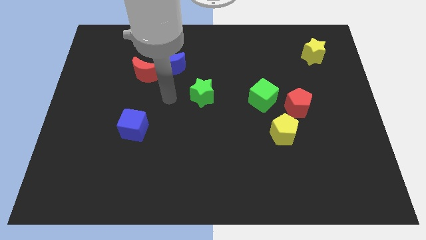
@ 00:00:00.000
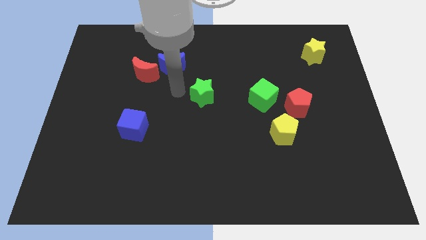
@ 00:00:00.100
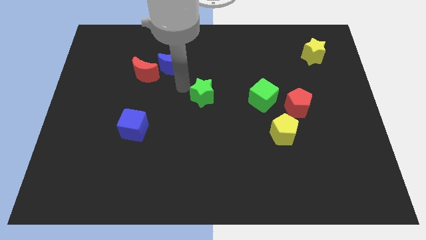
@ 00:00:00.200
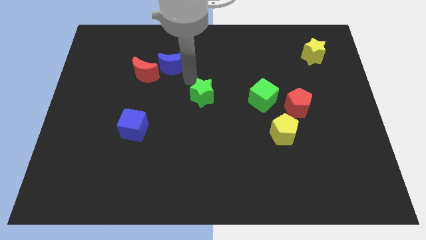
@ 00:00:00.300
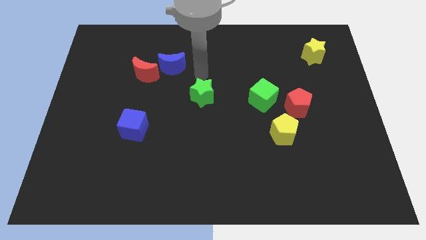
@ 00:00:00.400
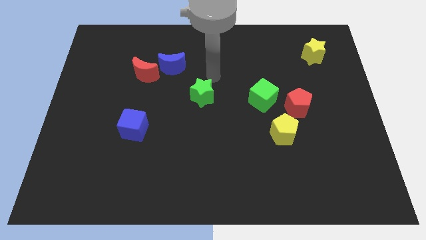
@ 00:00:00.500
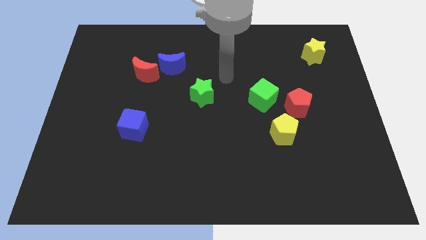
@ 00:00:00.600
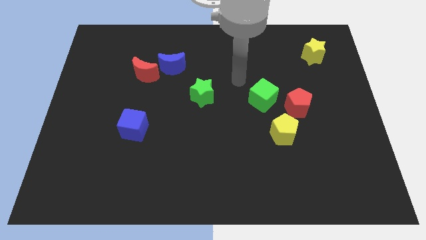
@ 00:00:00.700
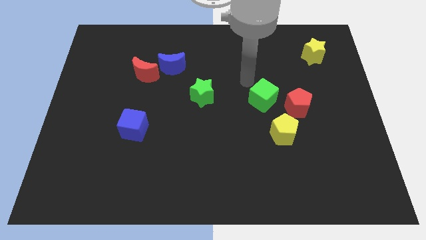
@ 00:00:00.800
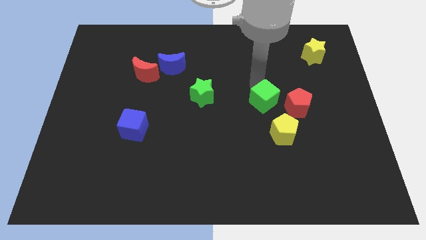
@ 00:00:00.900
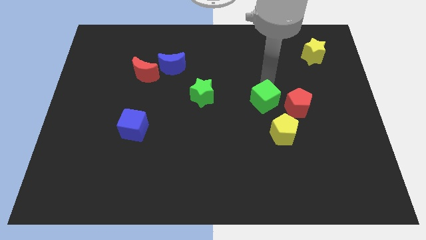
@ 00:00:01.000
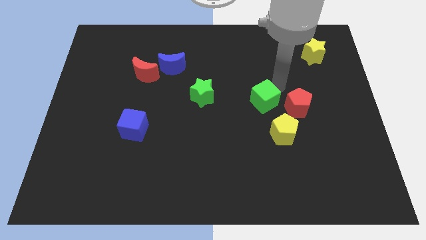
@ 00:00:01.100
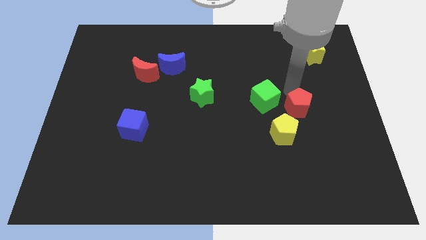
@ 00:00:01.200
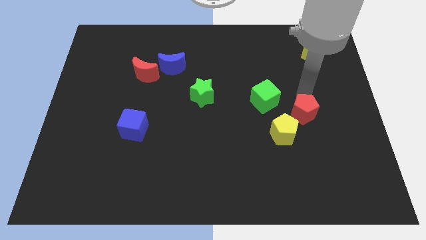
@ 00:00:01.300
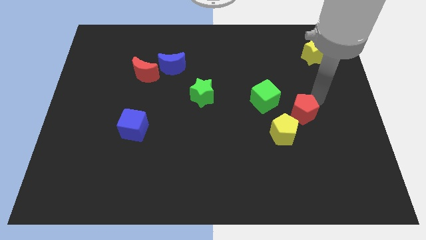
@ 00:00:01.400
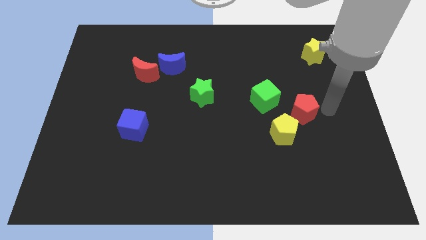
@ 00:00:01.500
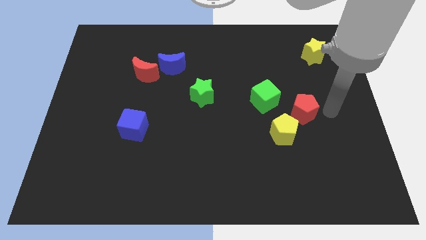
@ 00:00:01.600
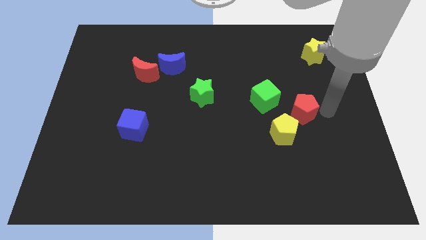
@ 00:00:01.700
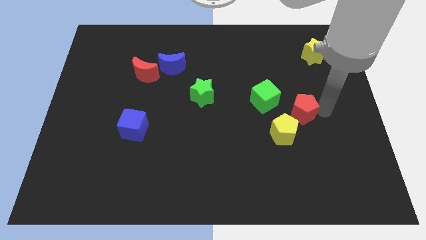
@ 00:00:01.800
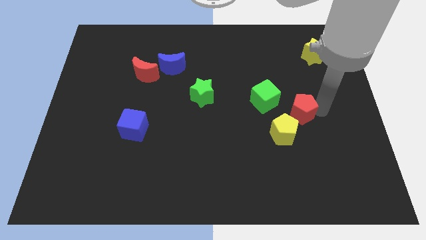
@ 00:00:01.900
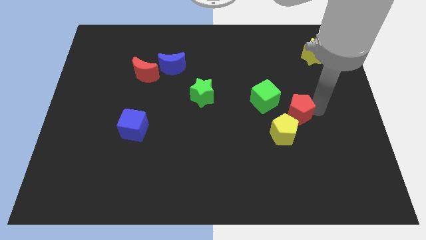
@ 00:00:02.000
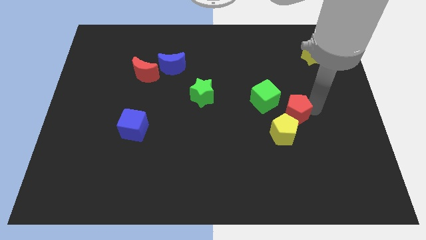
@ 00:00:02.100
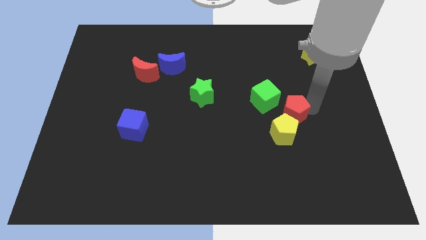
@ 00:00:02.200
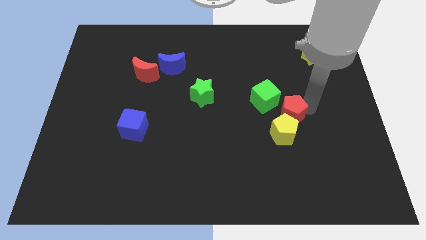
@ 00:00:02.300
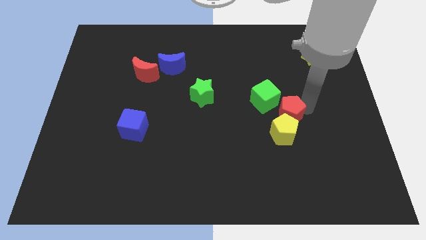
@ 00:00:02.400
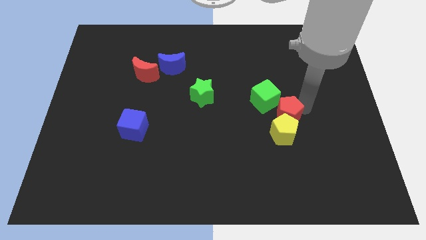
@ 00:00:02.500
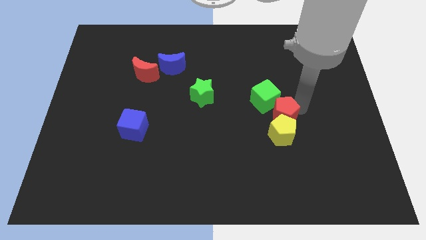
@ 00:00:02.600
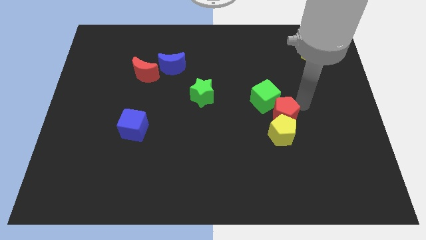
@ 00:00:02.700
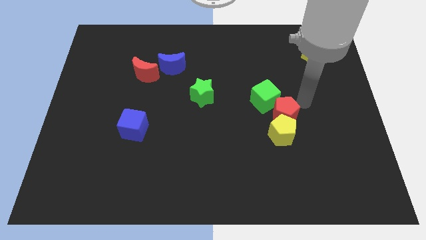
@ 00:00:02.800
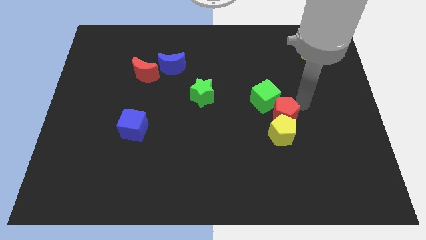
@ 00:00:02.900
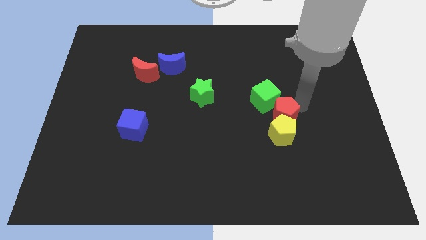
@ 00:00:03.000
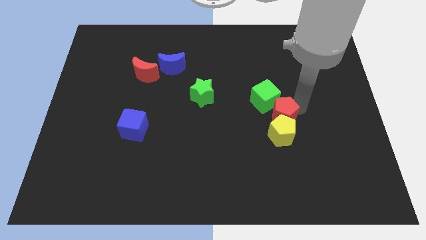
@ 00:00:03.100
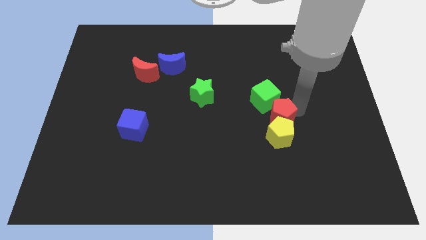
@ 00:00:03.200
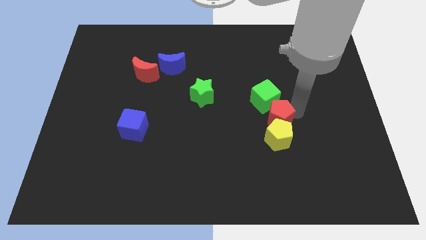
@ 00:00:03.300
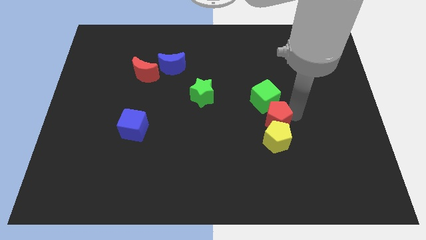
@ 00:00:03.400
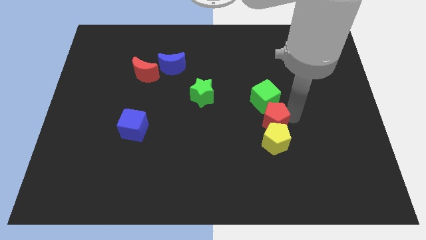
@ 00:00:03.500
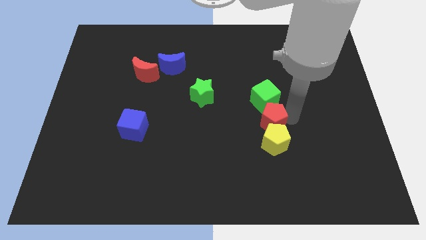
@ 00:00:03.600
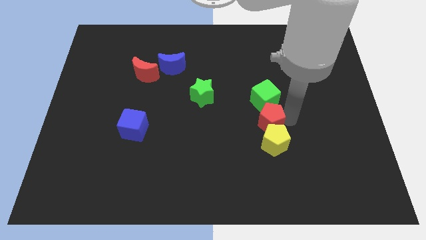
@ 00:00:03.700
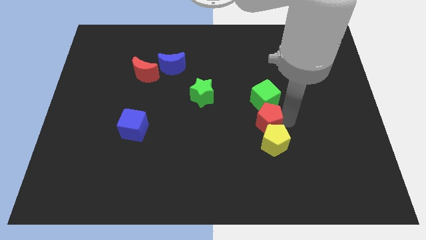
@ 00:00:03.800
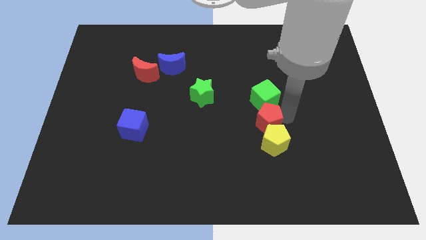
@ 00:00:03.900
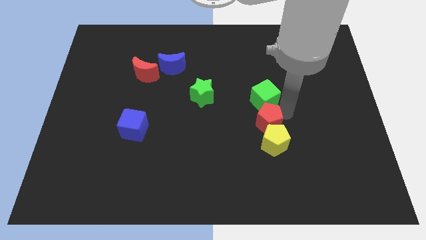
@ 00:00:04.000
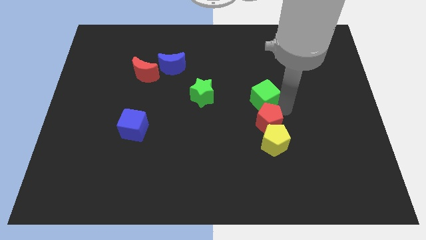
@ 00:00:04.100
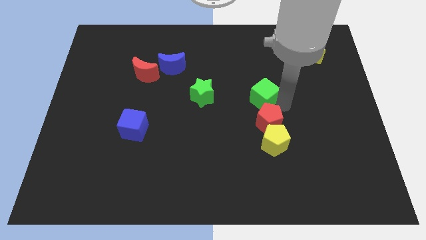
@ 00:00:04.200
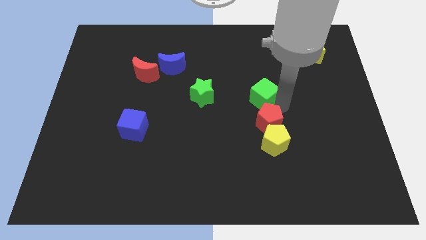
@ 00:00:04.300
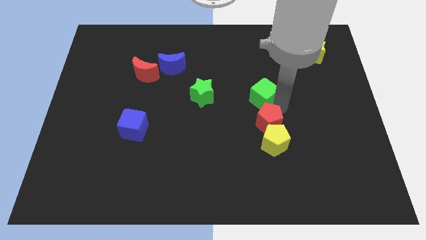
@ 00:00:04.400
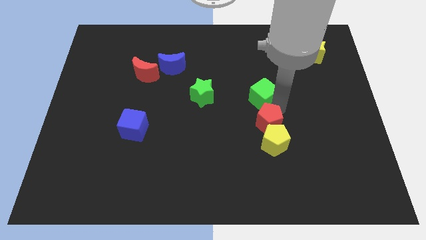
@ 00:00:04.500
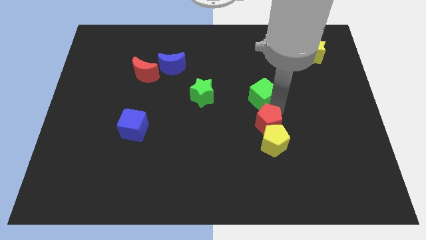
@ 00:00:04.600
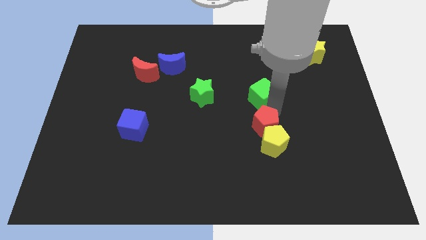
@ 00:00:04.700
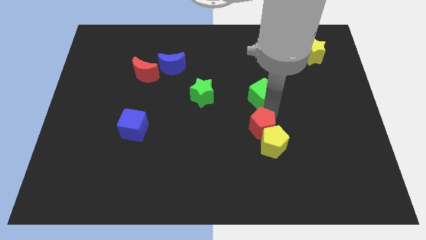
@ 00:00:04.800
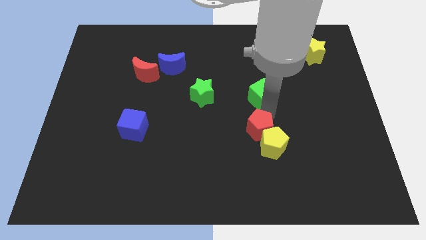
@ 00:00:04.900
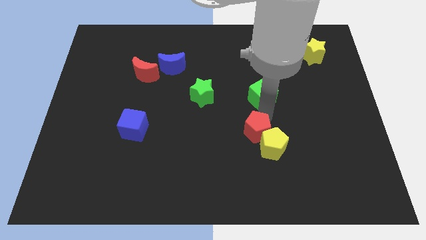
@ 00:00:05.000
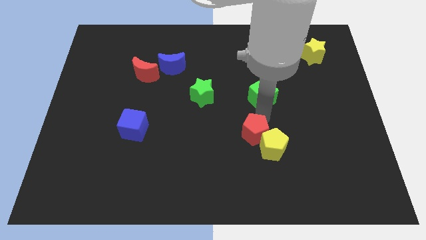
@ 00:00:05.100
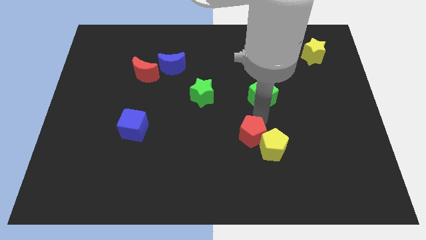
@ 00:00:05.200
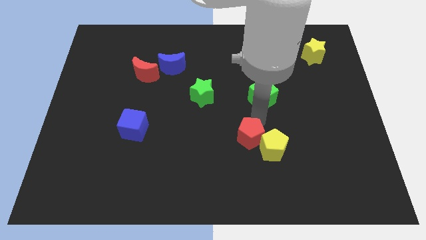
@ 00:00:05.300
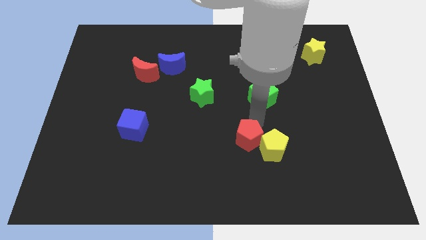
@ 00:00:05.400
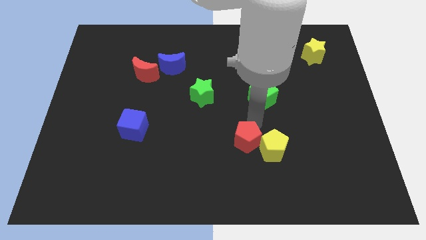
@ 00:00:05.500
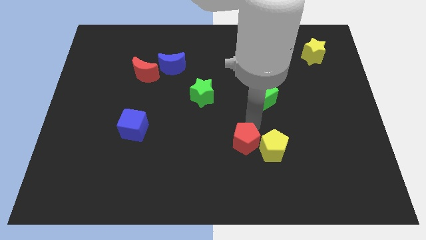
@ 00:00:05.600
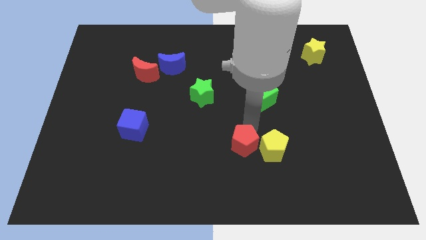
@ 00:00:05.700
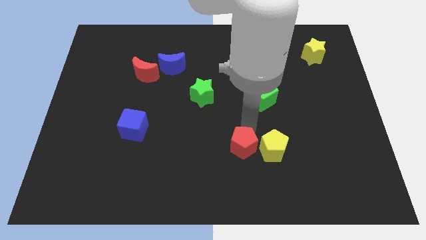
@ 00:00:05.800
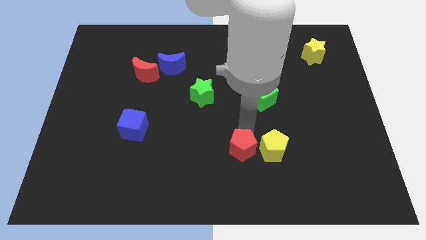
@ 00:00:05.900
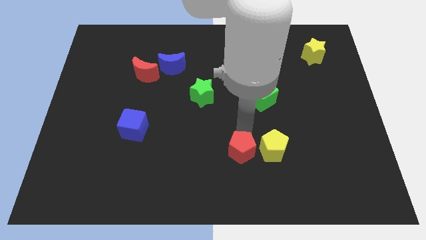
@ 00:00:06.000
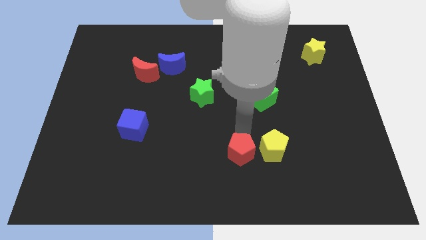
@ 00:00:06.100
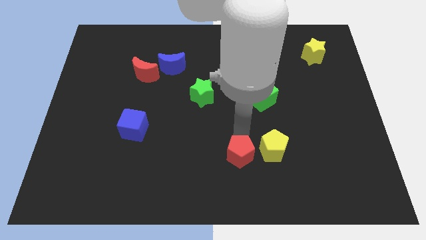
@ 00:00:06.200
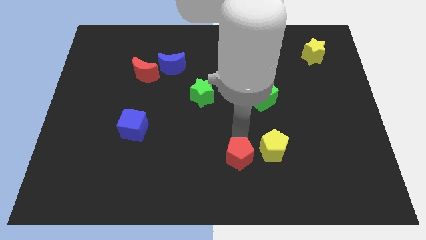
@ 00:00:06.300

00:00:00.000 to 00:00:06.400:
push the red pentagon to the bottom

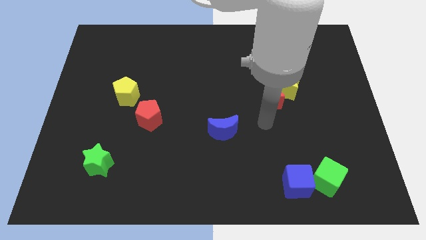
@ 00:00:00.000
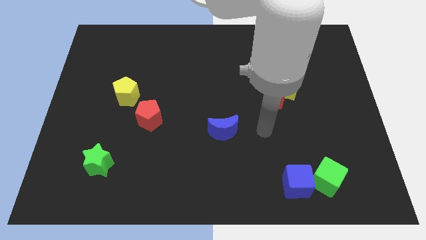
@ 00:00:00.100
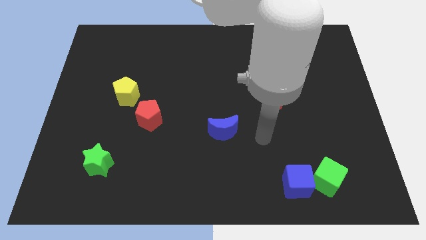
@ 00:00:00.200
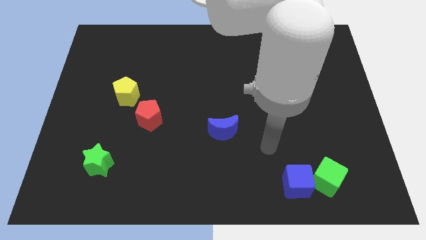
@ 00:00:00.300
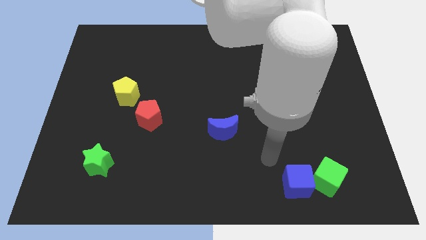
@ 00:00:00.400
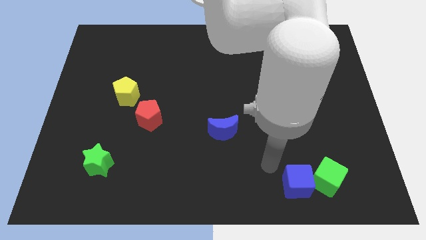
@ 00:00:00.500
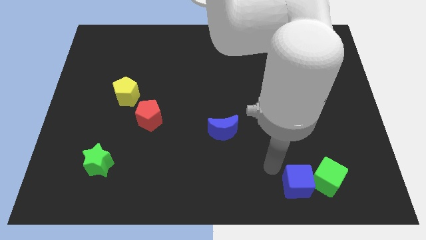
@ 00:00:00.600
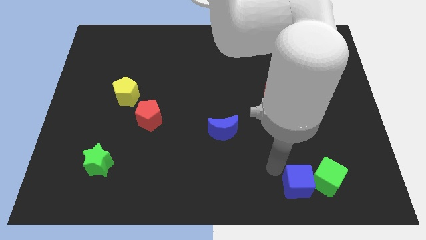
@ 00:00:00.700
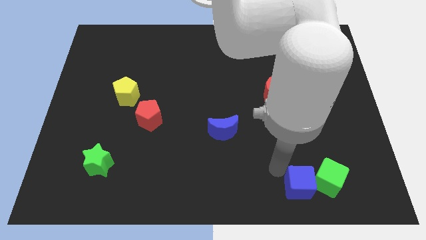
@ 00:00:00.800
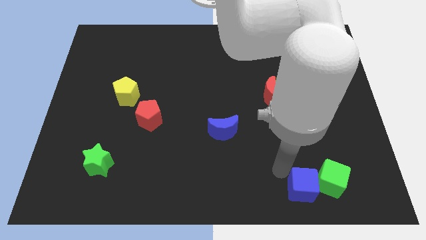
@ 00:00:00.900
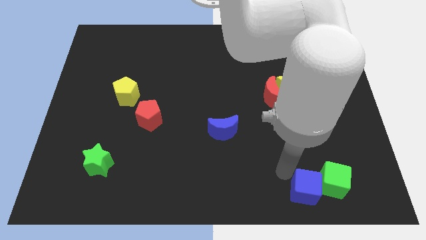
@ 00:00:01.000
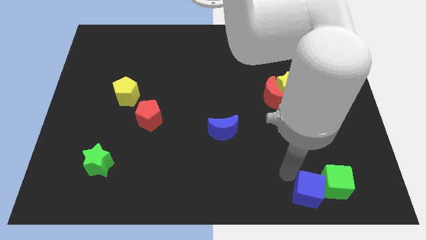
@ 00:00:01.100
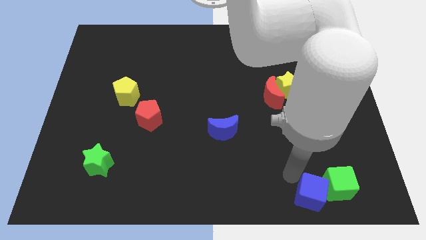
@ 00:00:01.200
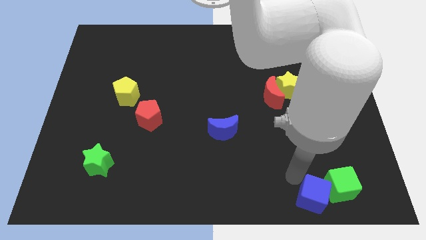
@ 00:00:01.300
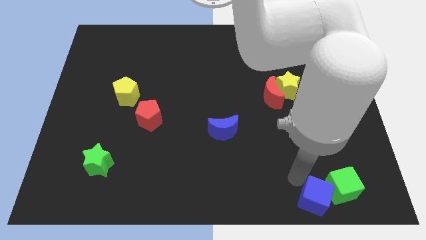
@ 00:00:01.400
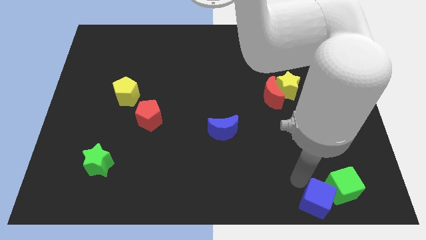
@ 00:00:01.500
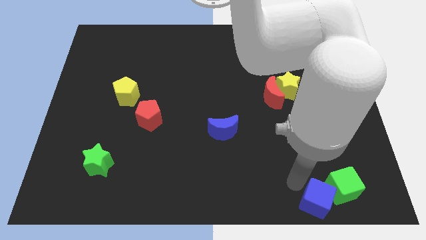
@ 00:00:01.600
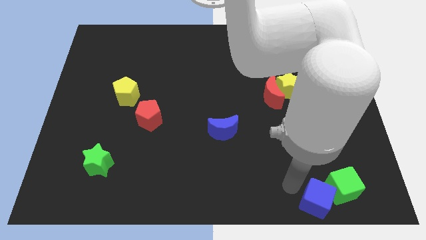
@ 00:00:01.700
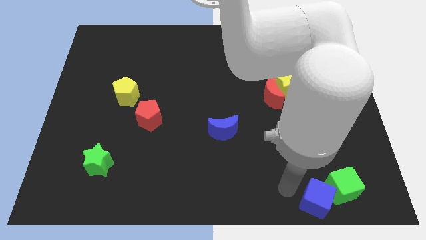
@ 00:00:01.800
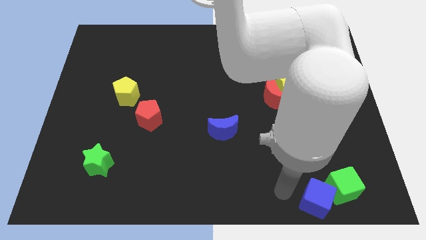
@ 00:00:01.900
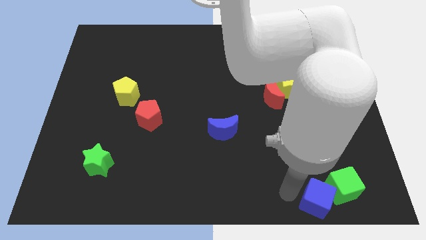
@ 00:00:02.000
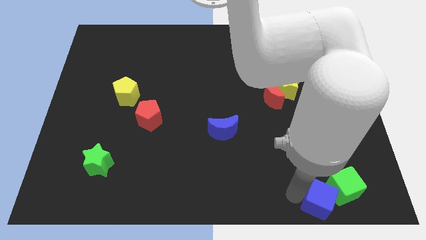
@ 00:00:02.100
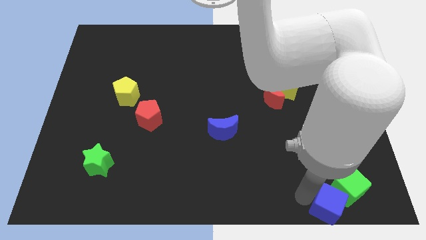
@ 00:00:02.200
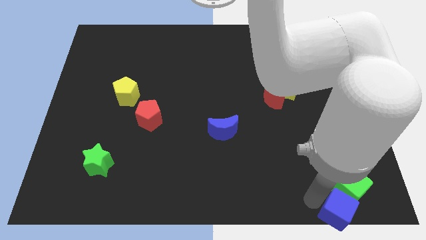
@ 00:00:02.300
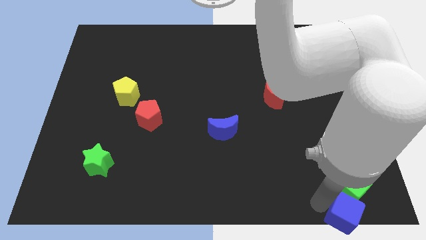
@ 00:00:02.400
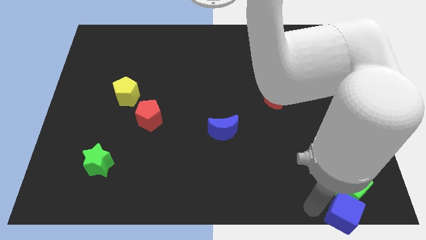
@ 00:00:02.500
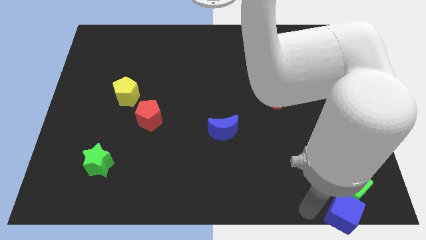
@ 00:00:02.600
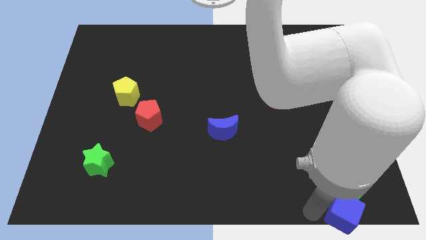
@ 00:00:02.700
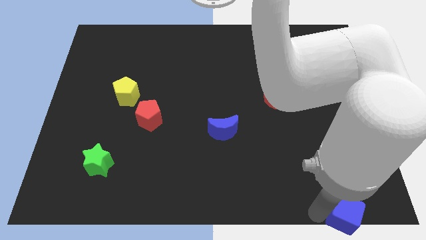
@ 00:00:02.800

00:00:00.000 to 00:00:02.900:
push the blue cube to the bottom right corner
